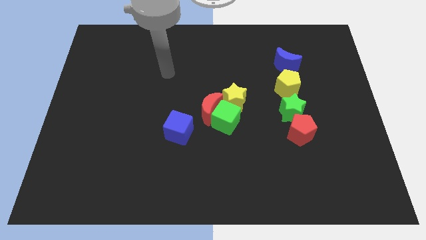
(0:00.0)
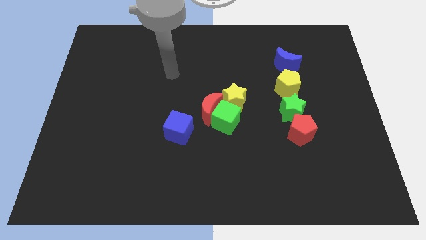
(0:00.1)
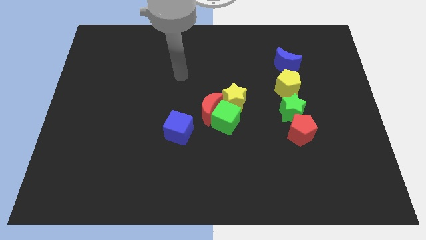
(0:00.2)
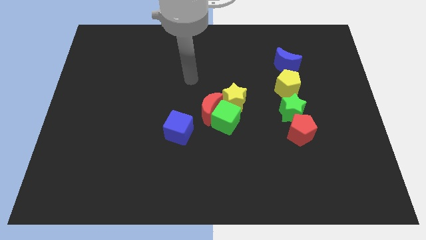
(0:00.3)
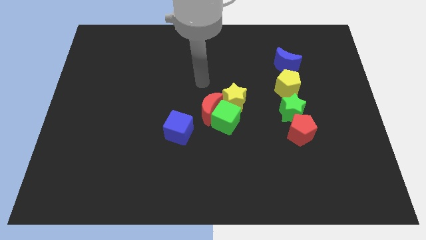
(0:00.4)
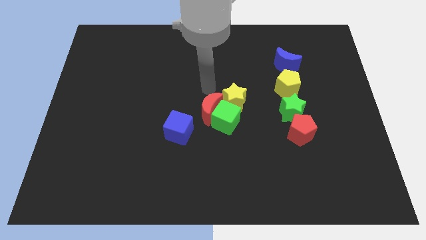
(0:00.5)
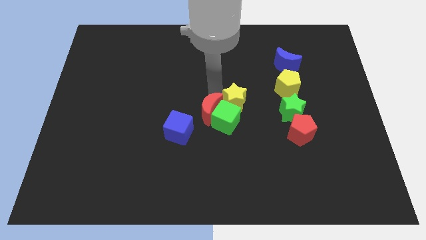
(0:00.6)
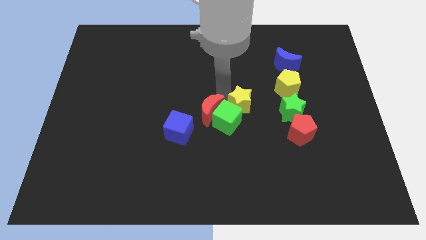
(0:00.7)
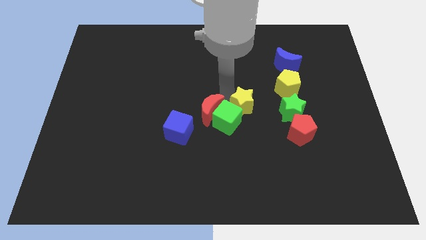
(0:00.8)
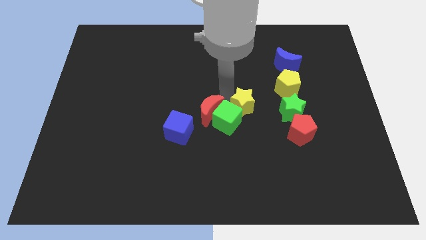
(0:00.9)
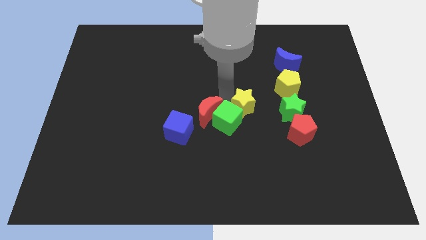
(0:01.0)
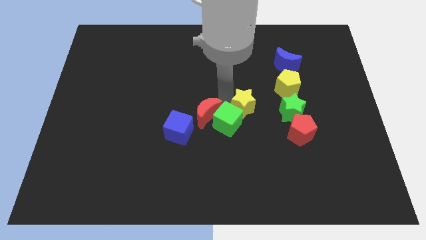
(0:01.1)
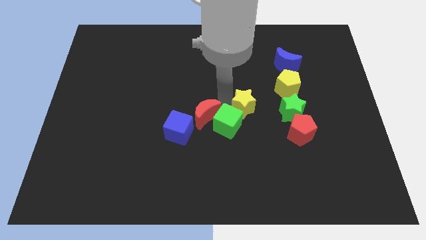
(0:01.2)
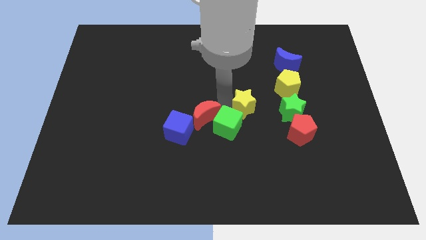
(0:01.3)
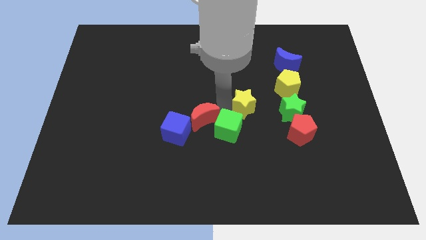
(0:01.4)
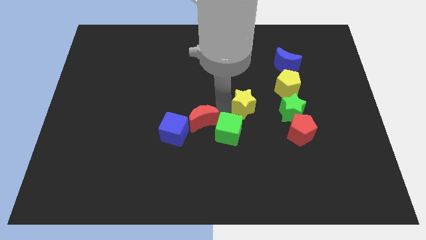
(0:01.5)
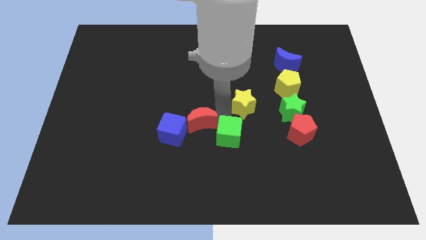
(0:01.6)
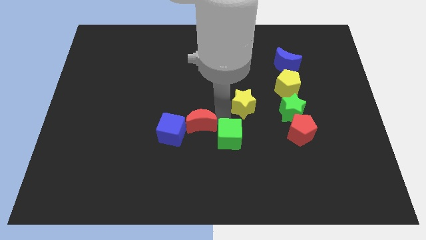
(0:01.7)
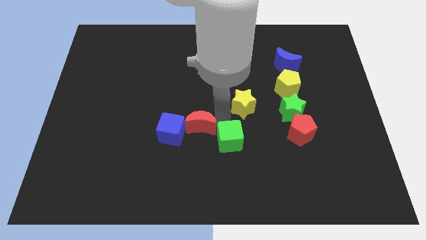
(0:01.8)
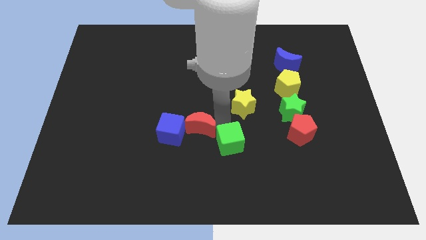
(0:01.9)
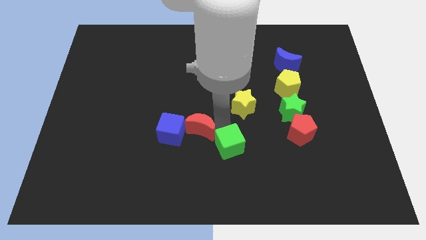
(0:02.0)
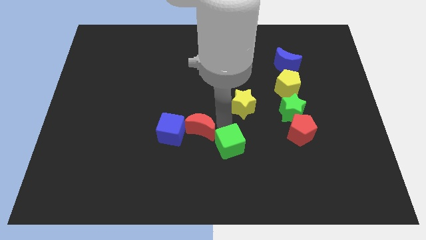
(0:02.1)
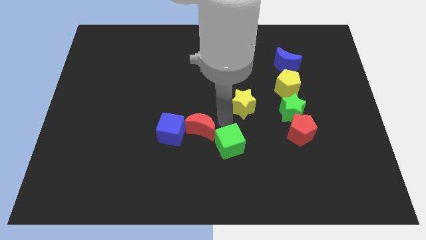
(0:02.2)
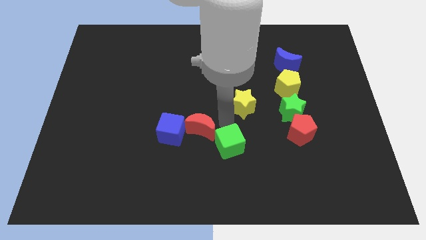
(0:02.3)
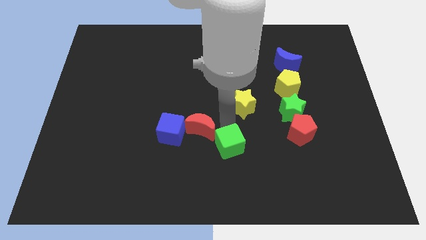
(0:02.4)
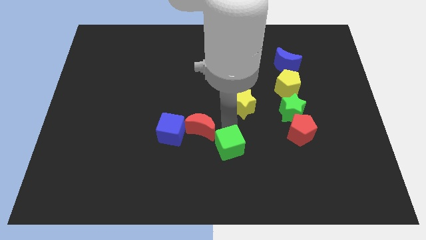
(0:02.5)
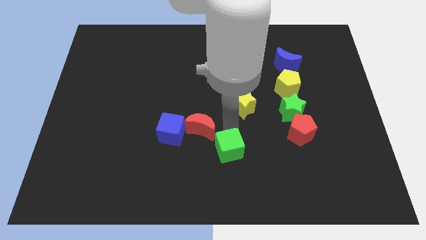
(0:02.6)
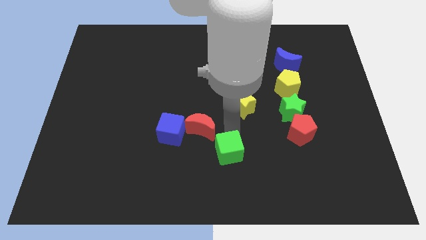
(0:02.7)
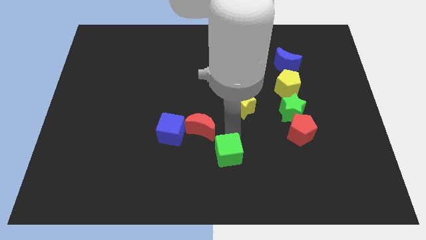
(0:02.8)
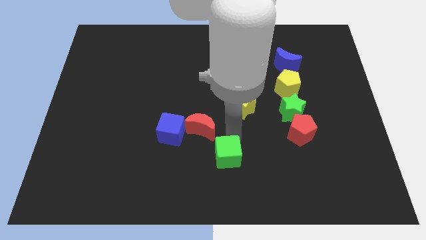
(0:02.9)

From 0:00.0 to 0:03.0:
pull the green cube apart from the red moon and yellow star

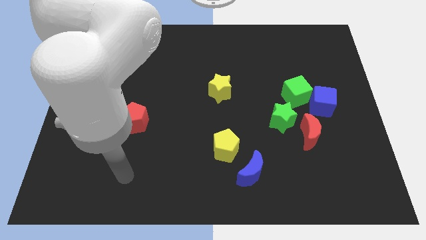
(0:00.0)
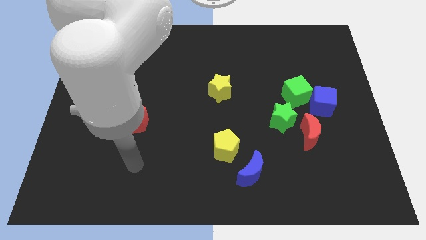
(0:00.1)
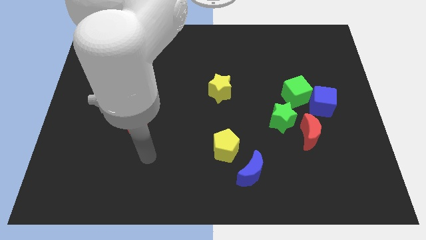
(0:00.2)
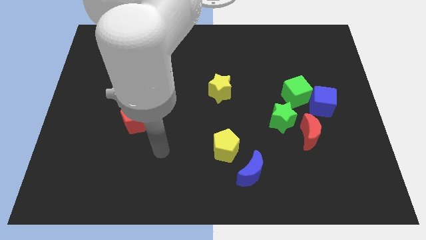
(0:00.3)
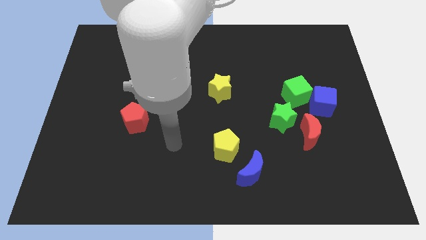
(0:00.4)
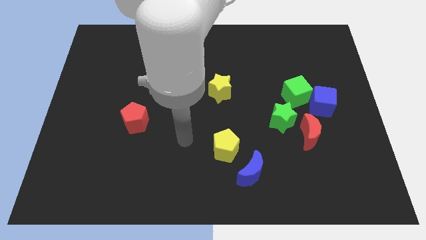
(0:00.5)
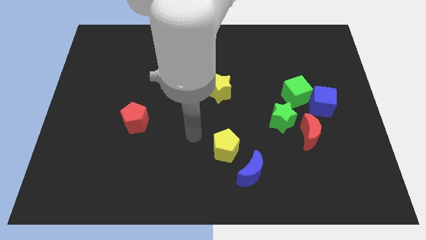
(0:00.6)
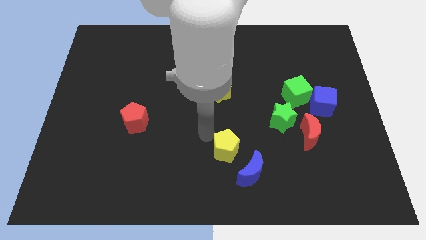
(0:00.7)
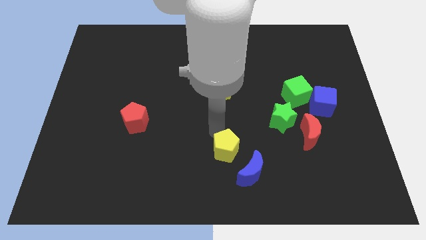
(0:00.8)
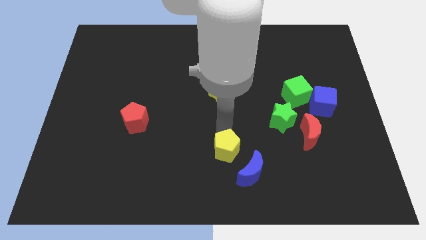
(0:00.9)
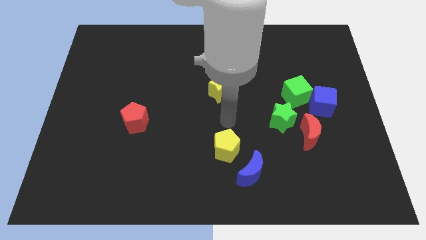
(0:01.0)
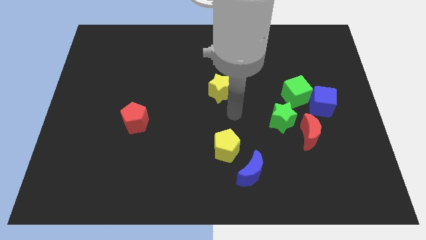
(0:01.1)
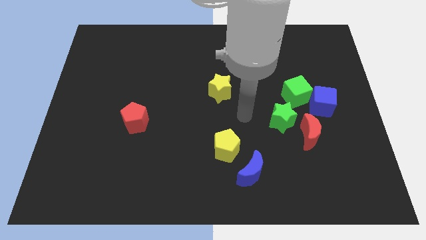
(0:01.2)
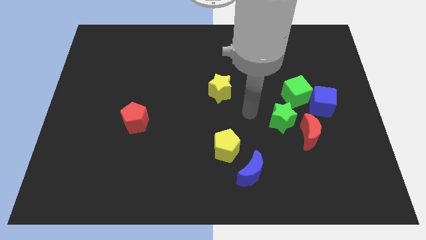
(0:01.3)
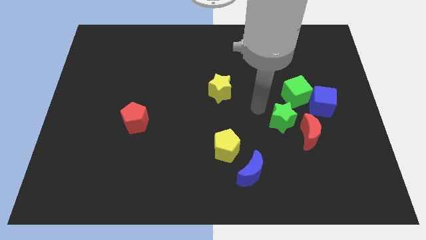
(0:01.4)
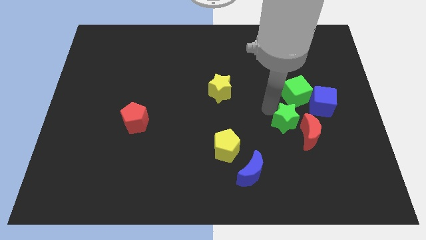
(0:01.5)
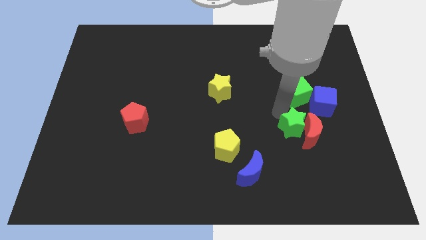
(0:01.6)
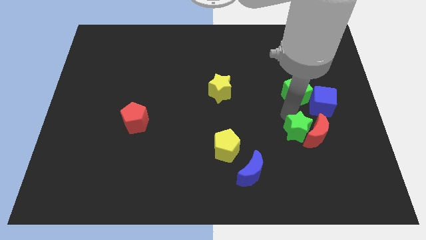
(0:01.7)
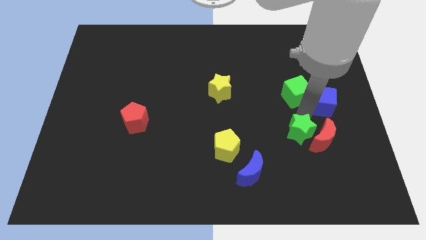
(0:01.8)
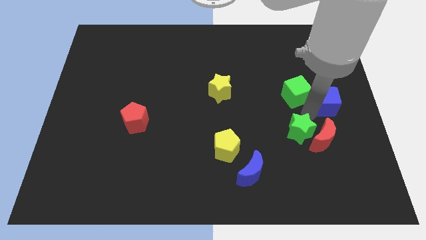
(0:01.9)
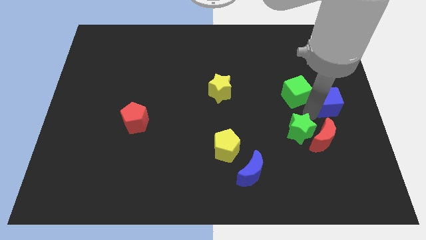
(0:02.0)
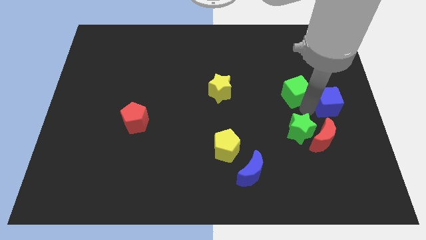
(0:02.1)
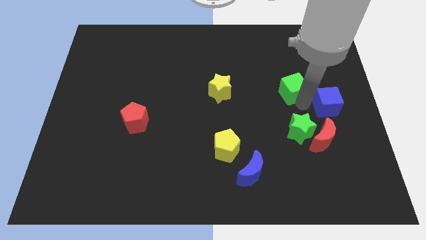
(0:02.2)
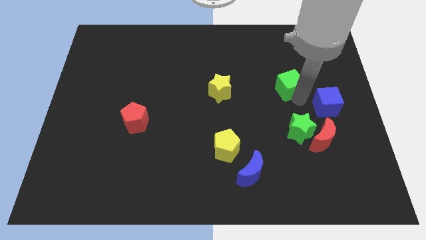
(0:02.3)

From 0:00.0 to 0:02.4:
pull the green cube apart from the blue cube and green star

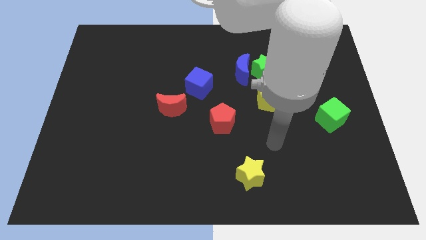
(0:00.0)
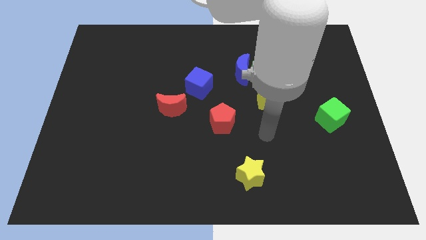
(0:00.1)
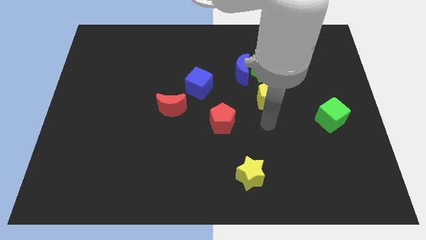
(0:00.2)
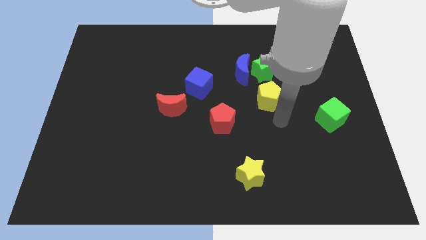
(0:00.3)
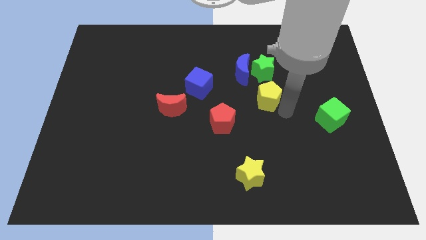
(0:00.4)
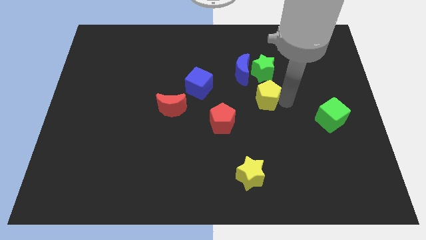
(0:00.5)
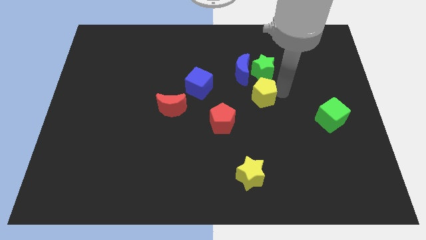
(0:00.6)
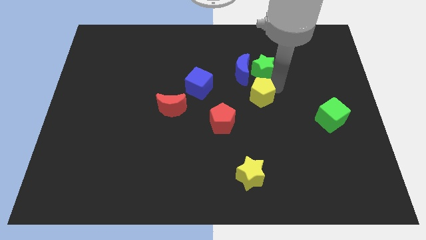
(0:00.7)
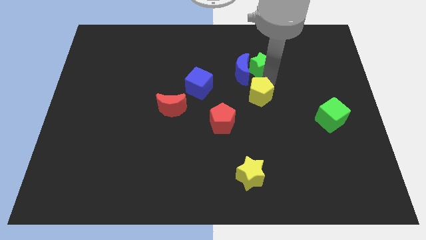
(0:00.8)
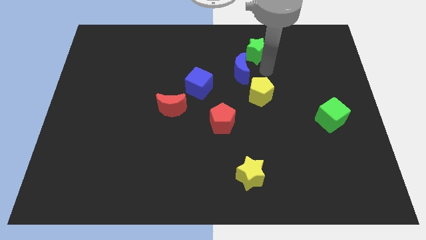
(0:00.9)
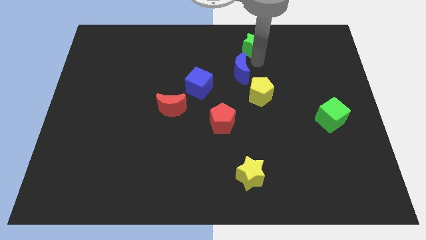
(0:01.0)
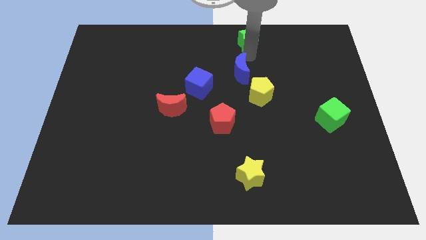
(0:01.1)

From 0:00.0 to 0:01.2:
pull the blue moon apart from the green star

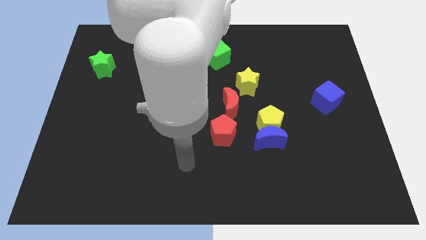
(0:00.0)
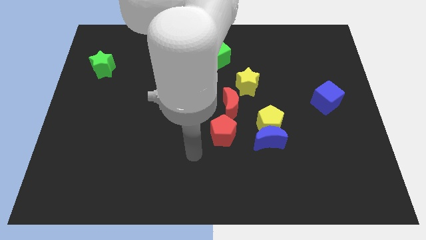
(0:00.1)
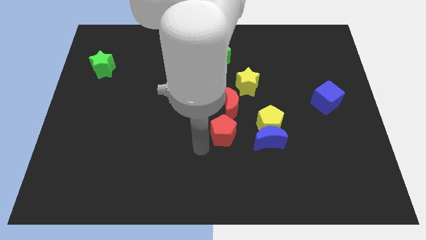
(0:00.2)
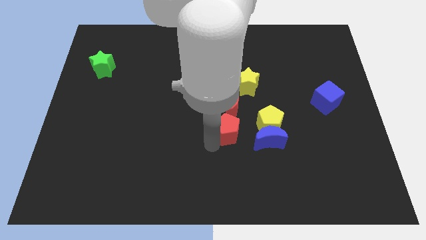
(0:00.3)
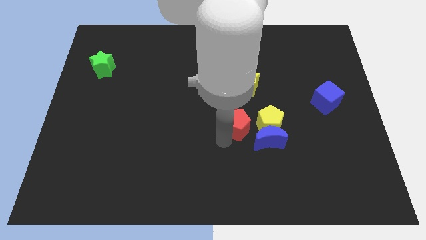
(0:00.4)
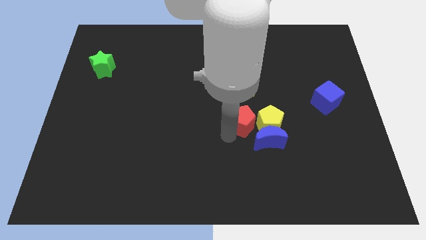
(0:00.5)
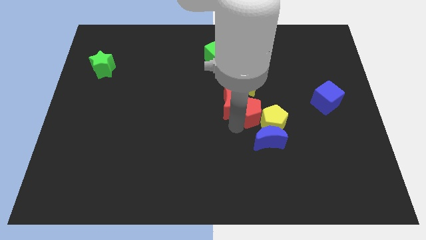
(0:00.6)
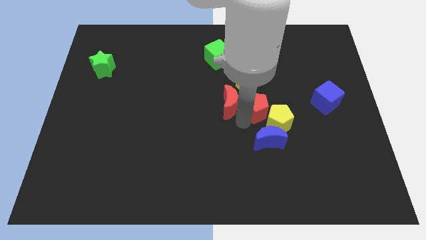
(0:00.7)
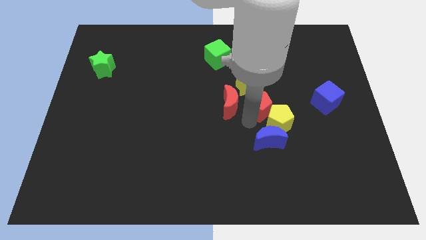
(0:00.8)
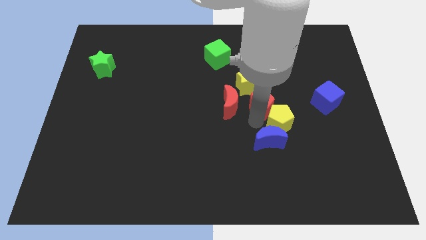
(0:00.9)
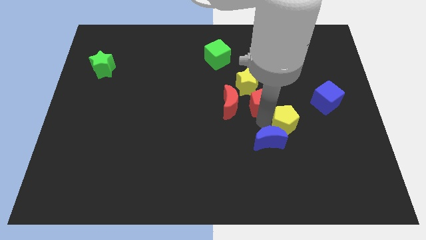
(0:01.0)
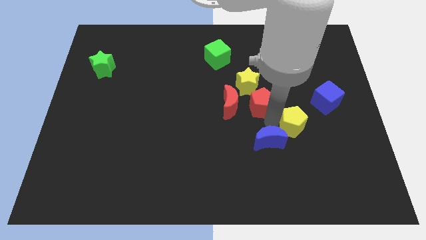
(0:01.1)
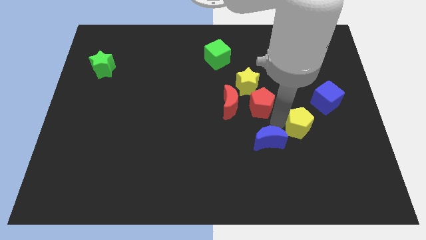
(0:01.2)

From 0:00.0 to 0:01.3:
separate the yellow pentagon from the blue moon and red moon

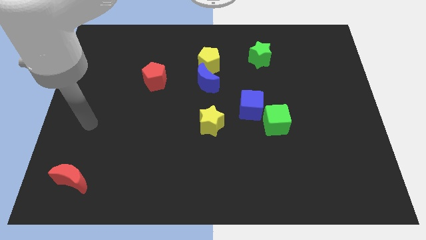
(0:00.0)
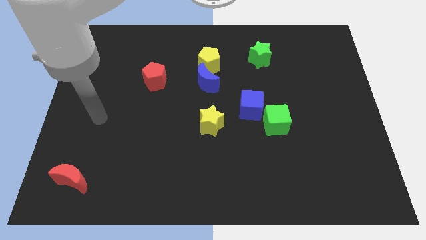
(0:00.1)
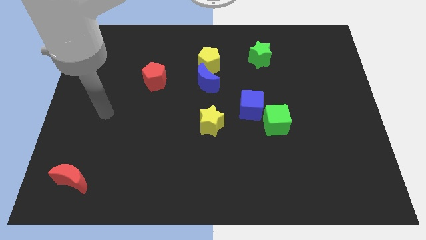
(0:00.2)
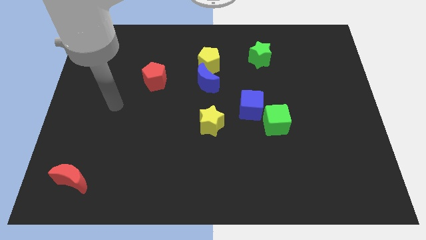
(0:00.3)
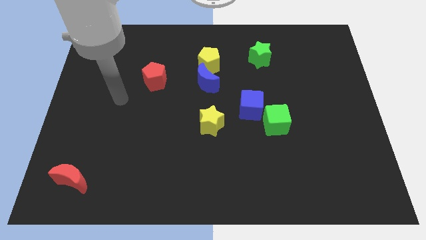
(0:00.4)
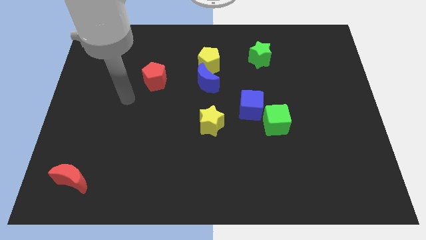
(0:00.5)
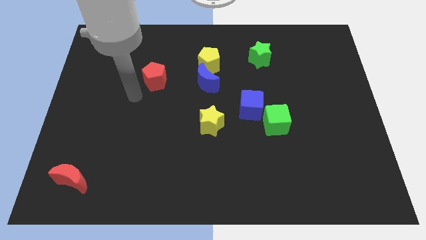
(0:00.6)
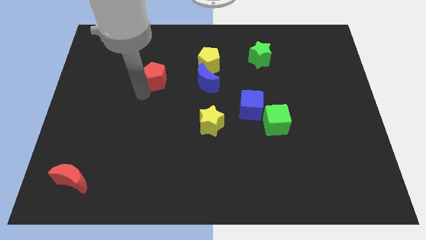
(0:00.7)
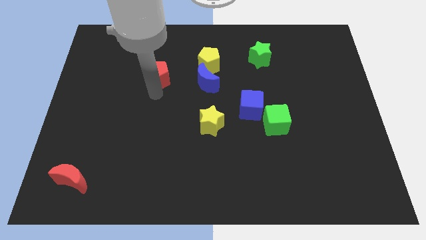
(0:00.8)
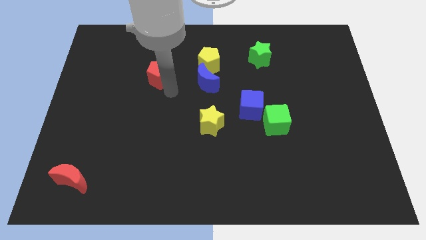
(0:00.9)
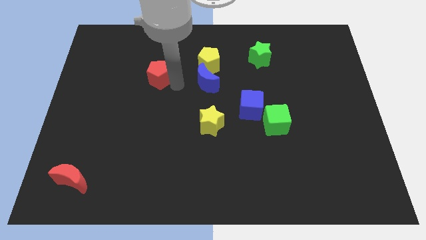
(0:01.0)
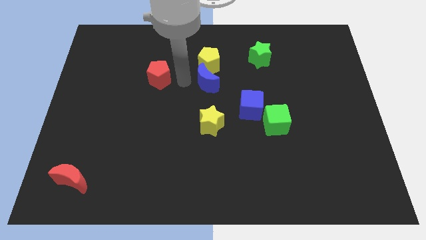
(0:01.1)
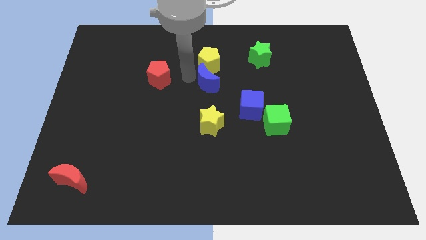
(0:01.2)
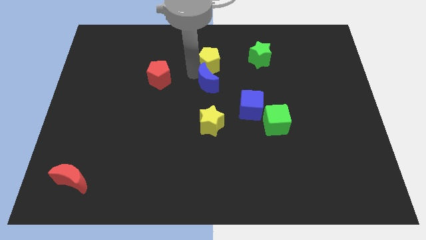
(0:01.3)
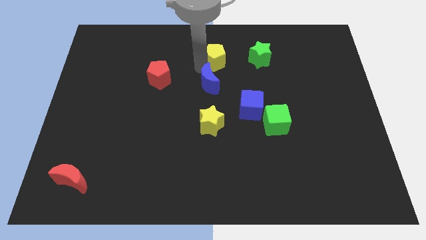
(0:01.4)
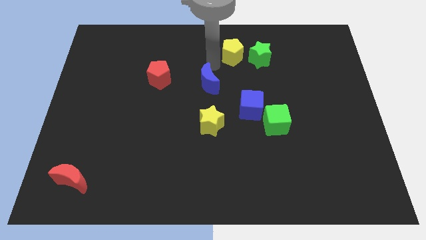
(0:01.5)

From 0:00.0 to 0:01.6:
pull the blue moon apart from the yellow pentagon
